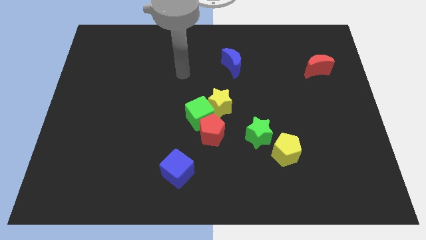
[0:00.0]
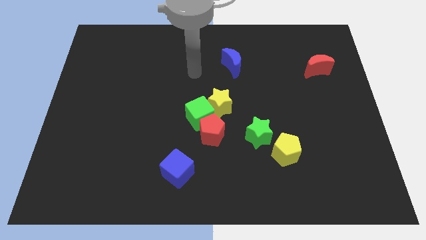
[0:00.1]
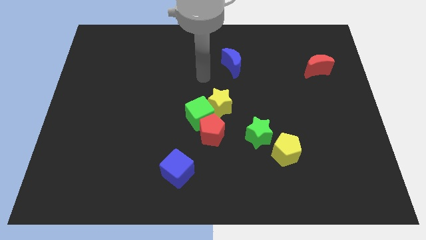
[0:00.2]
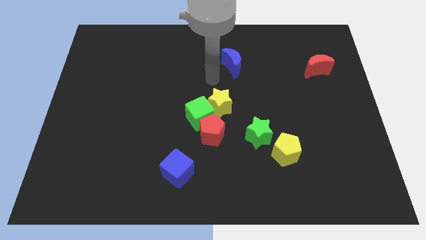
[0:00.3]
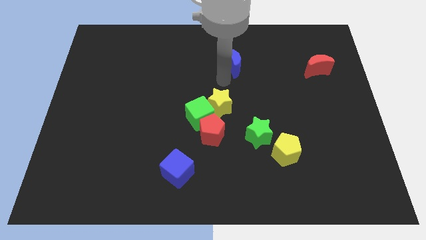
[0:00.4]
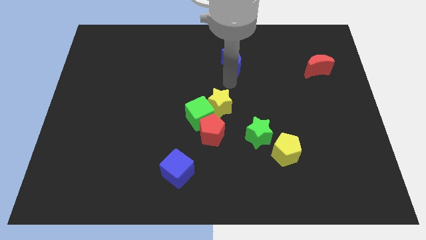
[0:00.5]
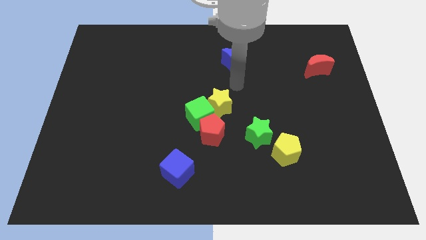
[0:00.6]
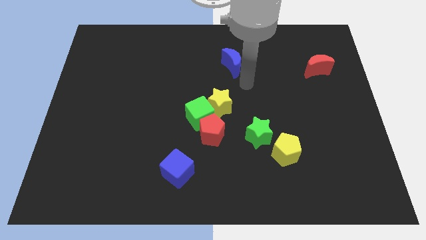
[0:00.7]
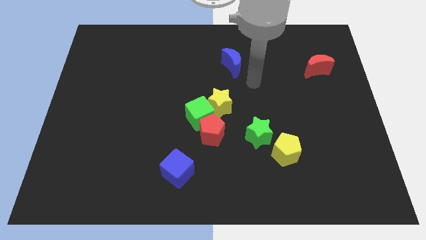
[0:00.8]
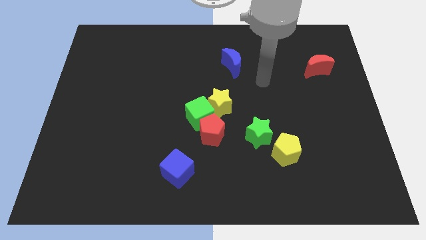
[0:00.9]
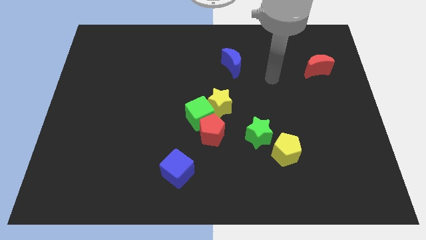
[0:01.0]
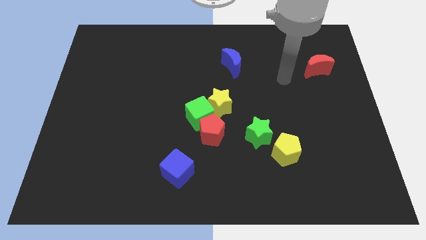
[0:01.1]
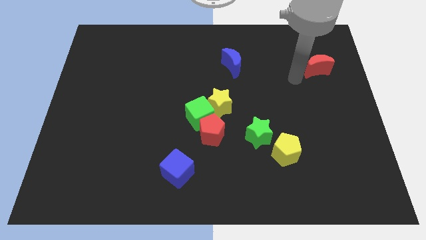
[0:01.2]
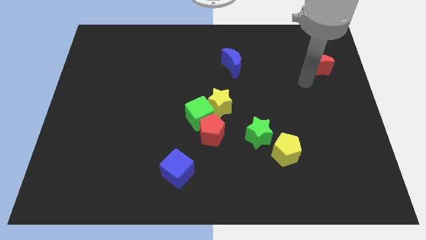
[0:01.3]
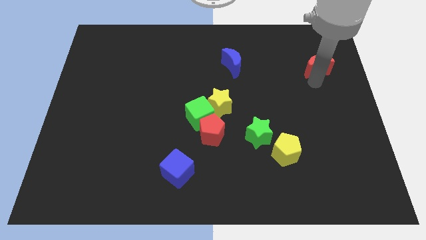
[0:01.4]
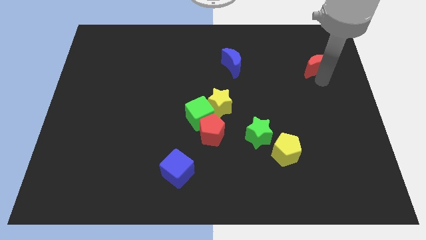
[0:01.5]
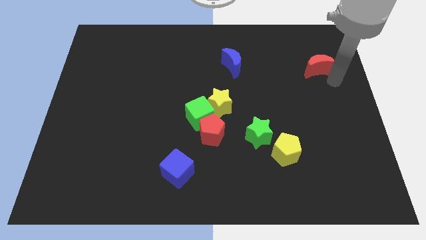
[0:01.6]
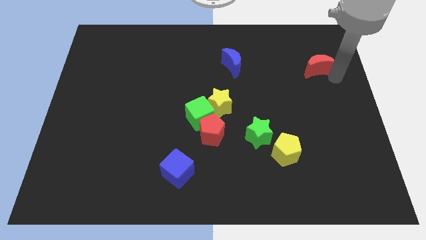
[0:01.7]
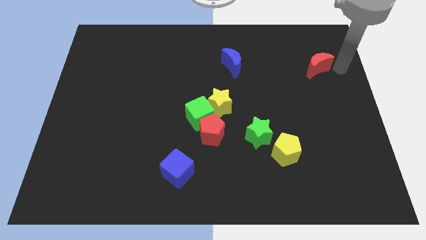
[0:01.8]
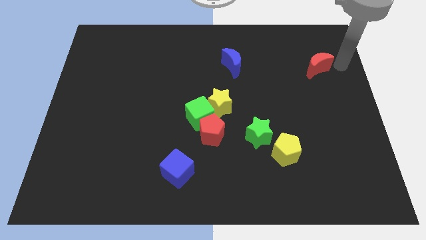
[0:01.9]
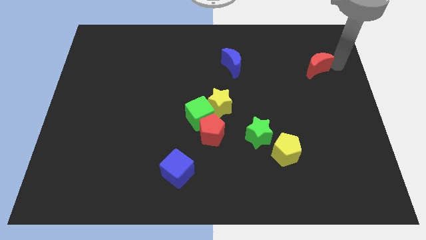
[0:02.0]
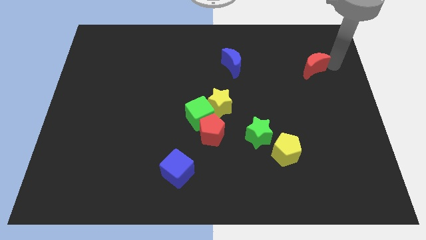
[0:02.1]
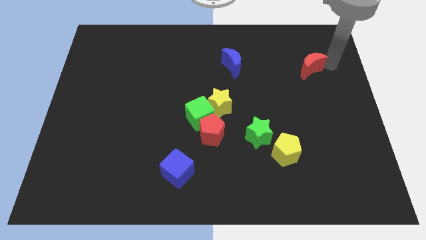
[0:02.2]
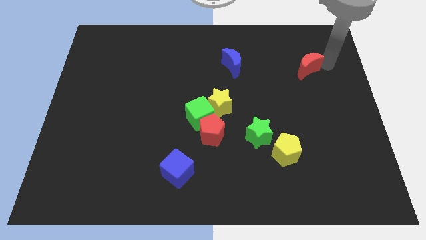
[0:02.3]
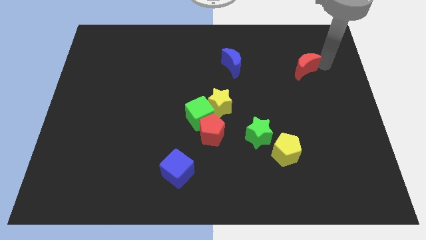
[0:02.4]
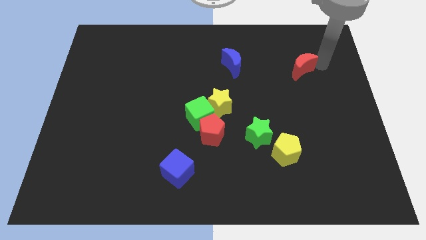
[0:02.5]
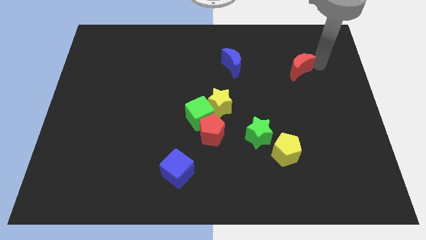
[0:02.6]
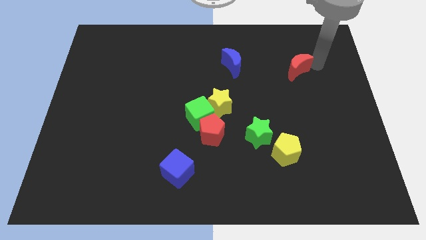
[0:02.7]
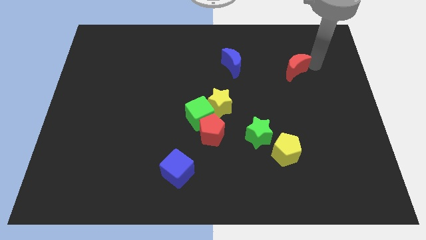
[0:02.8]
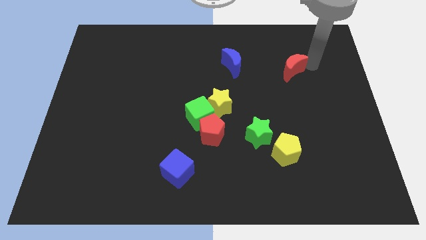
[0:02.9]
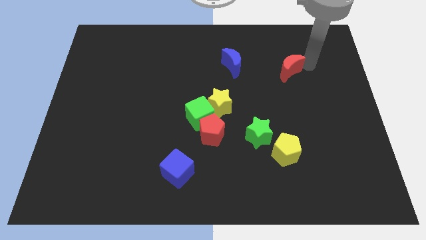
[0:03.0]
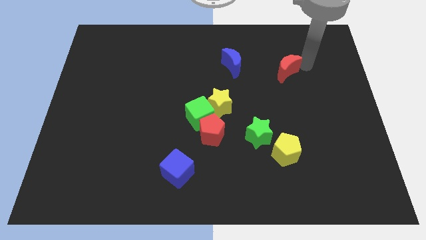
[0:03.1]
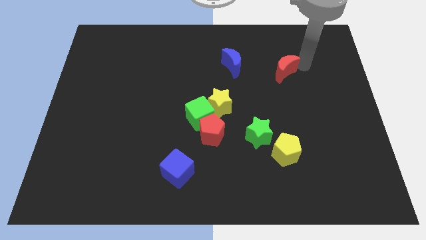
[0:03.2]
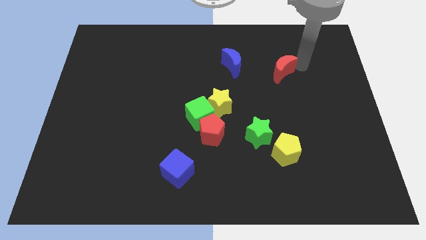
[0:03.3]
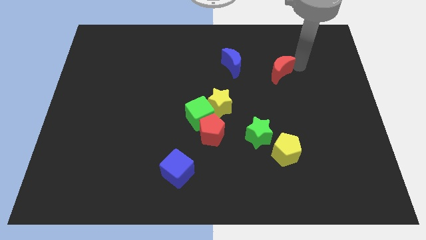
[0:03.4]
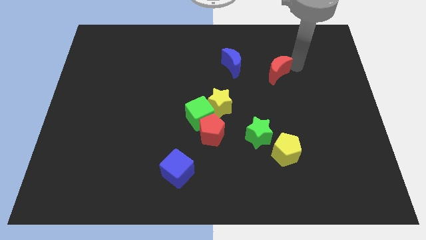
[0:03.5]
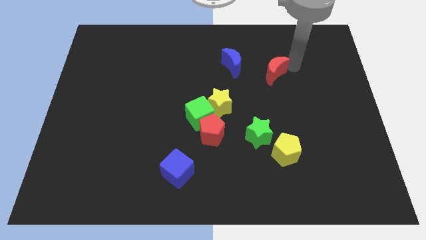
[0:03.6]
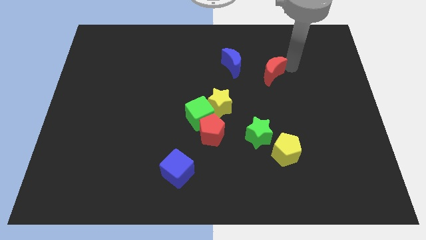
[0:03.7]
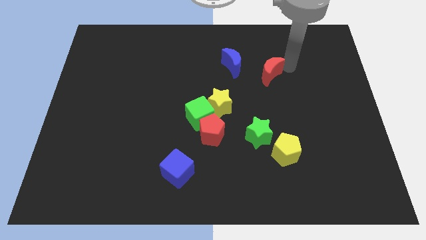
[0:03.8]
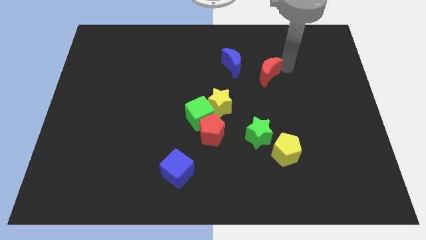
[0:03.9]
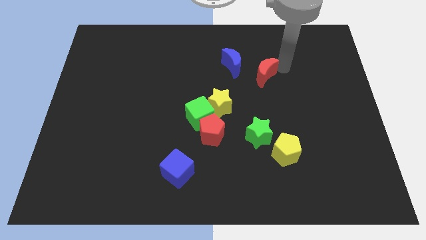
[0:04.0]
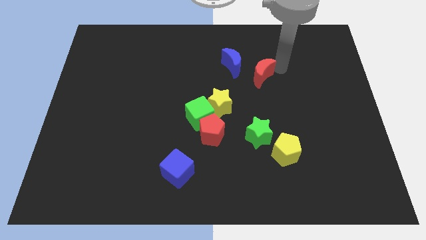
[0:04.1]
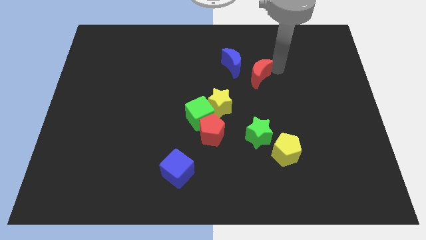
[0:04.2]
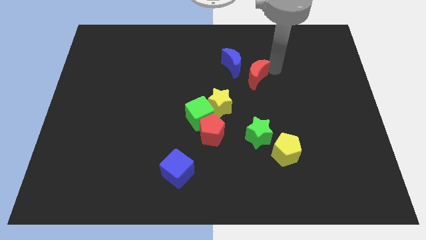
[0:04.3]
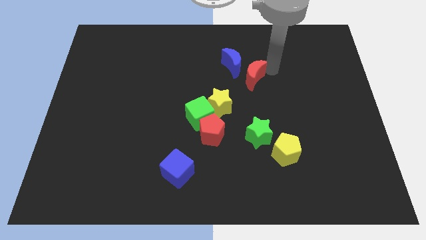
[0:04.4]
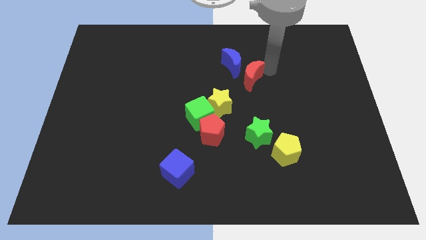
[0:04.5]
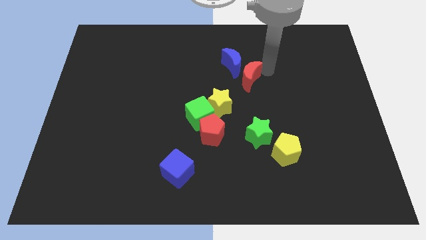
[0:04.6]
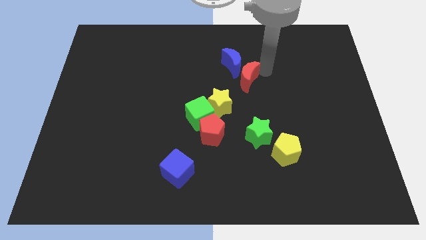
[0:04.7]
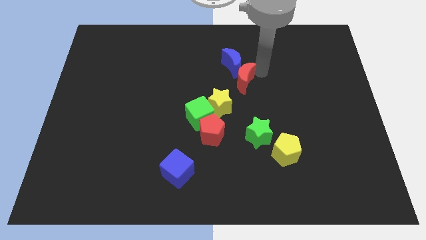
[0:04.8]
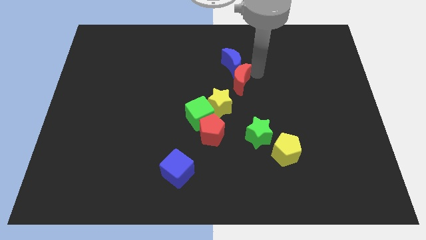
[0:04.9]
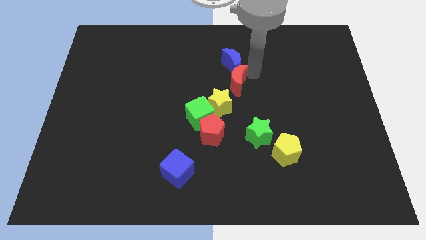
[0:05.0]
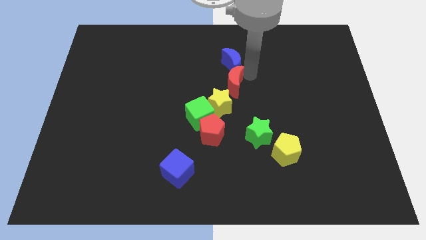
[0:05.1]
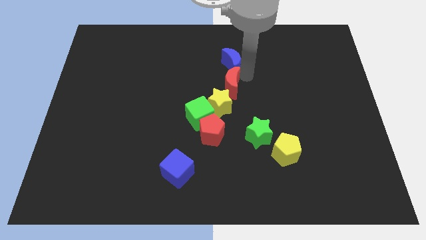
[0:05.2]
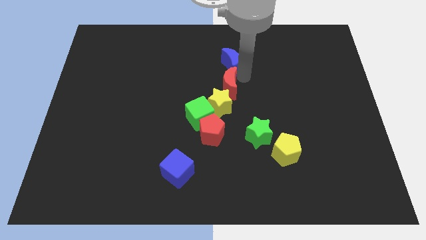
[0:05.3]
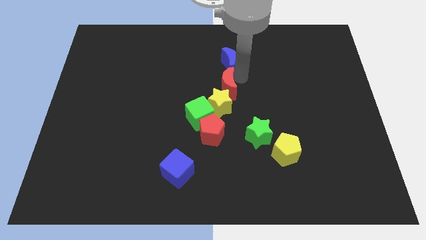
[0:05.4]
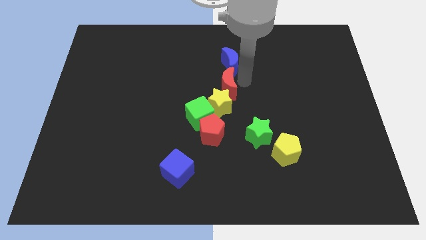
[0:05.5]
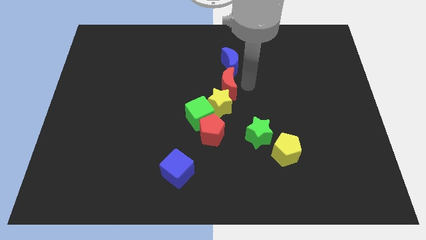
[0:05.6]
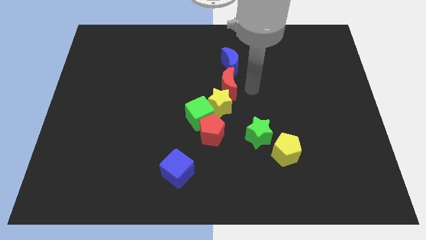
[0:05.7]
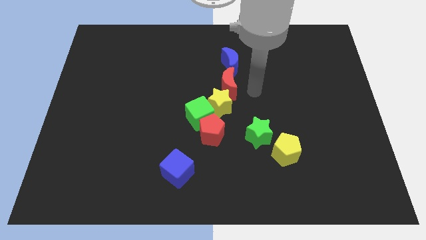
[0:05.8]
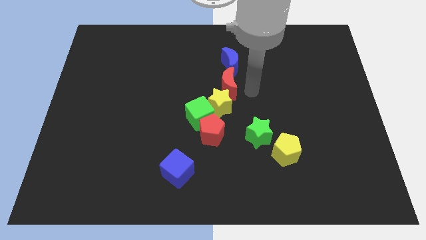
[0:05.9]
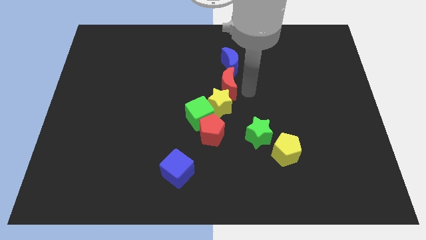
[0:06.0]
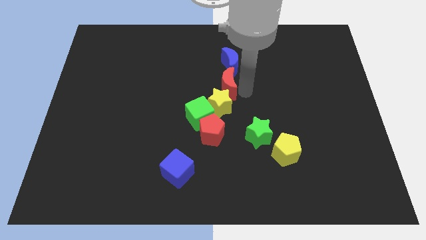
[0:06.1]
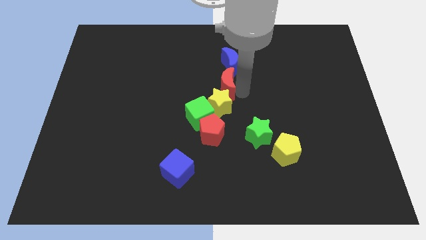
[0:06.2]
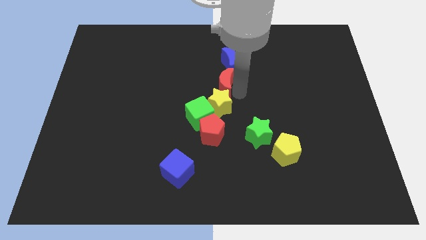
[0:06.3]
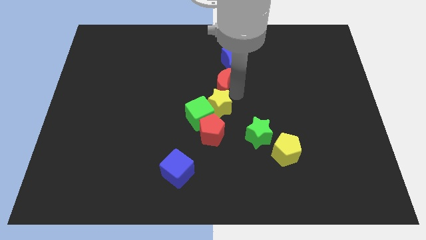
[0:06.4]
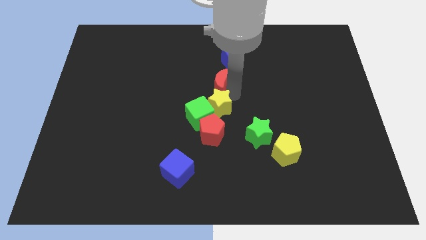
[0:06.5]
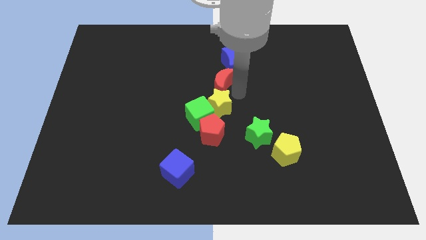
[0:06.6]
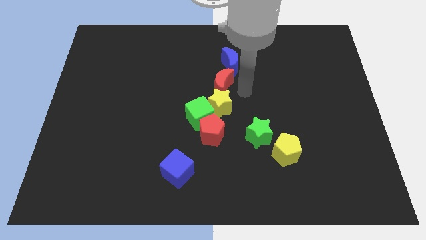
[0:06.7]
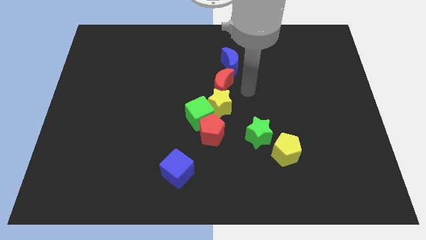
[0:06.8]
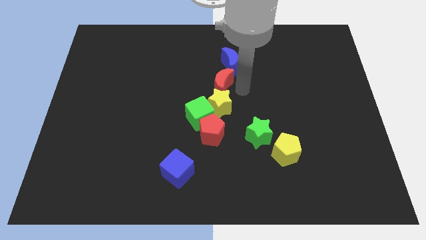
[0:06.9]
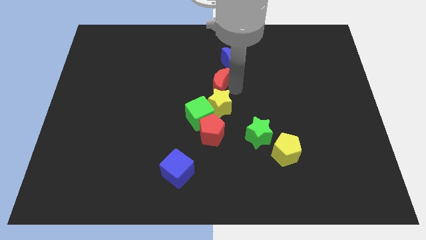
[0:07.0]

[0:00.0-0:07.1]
put the red moon to the top of the green cube
